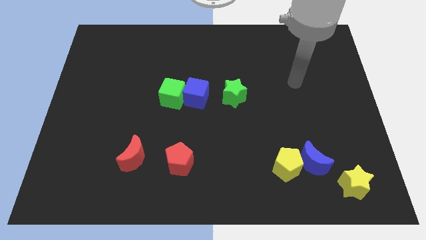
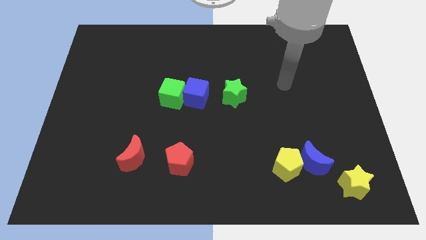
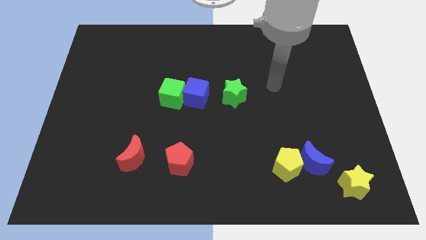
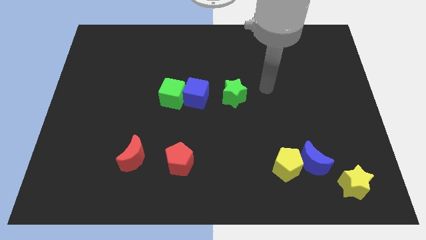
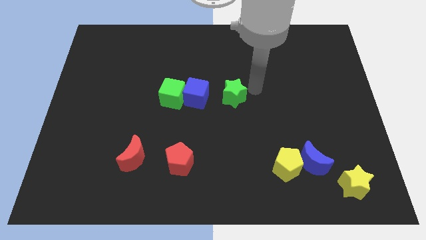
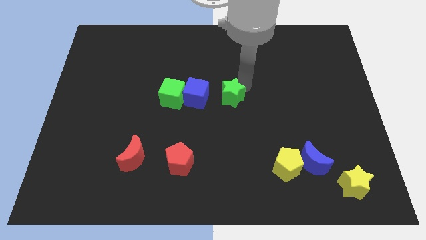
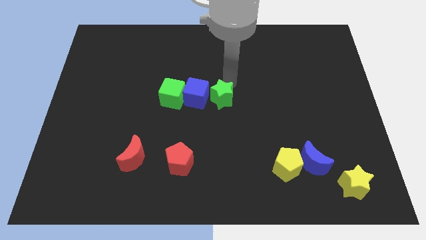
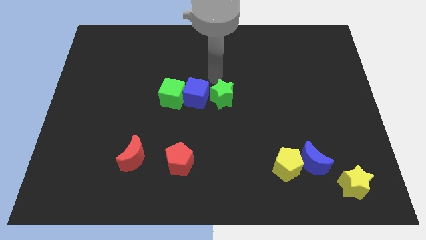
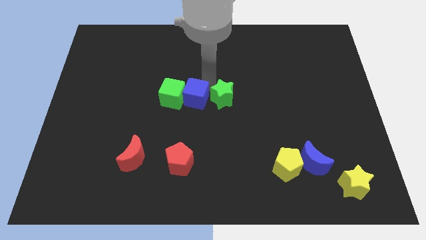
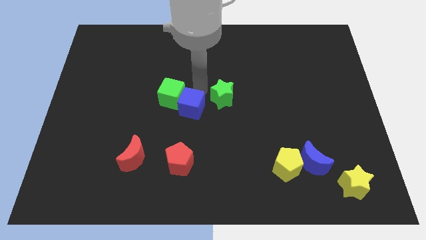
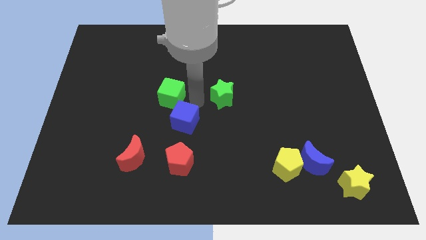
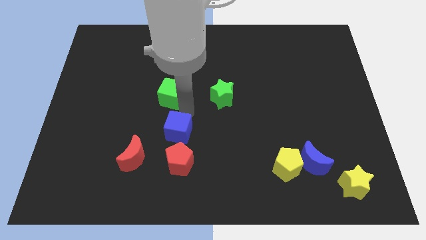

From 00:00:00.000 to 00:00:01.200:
pull the green cube apart from the blue cube

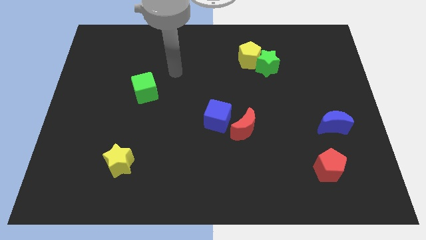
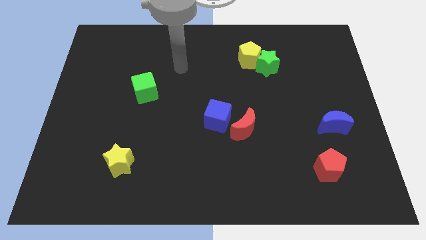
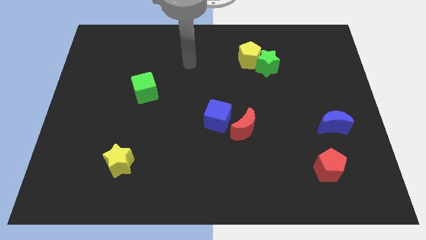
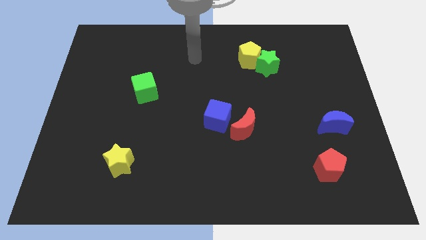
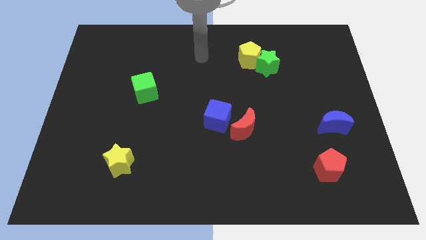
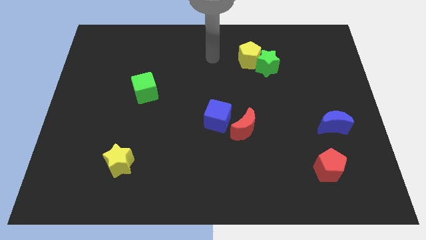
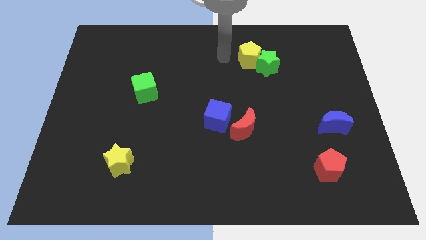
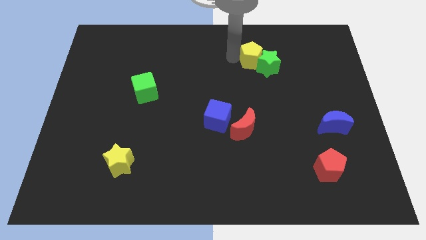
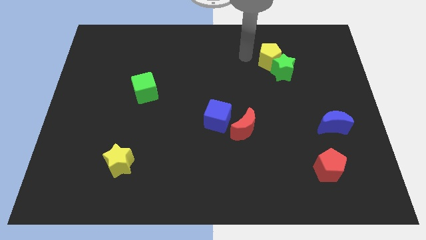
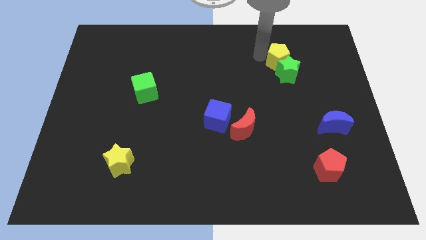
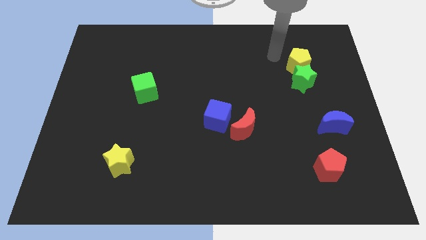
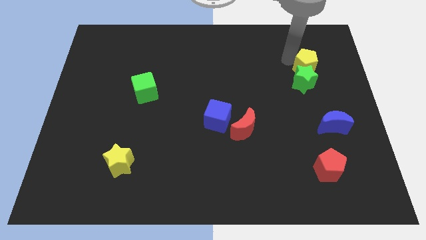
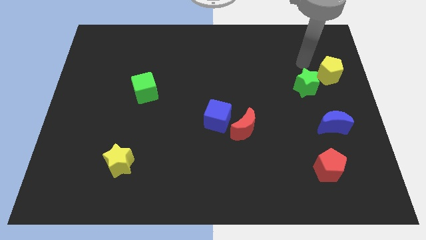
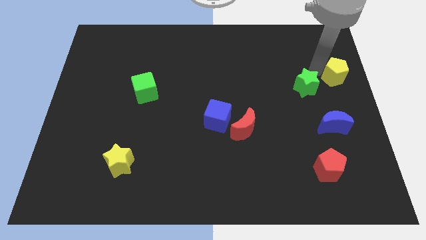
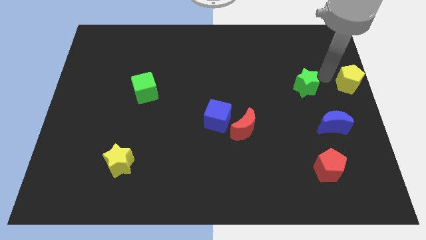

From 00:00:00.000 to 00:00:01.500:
move the green star away from the yellow pentagon

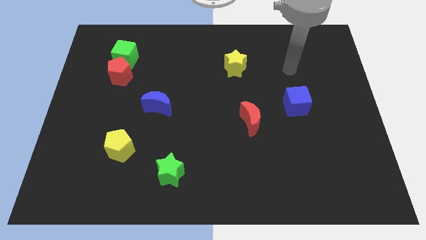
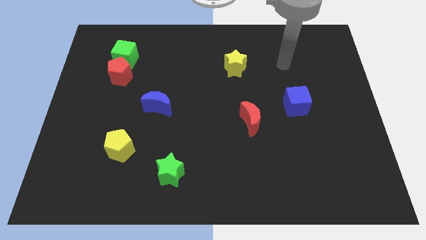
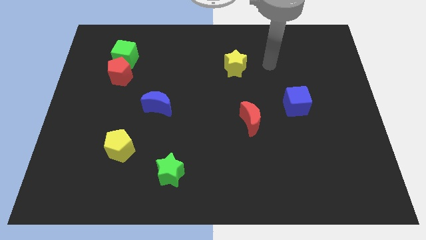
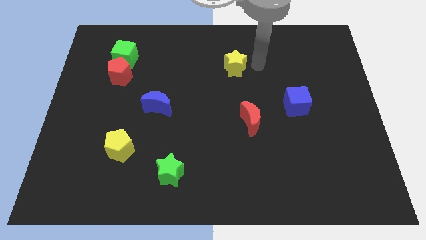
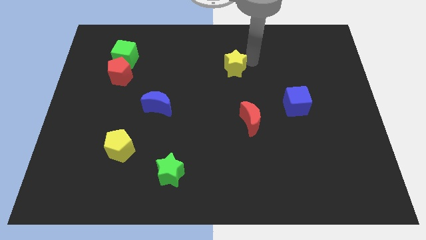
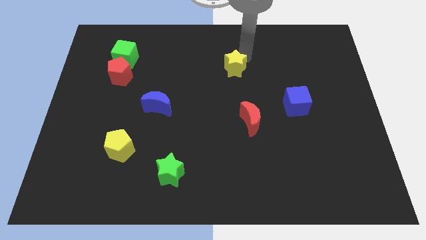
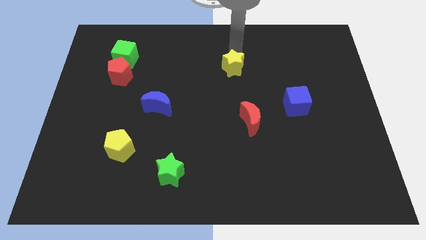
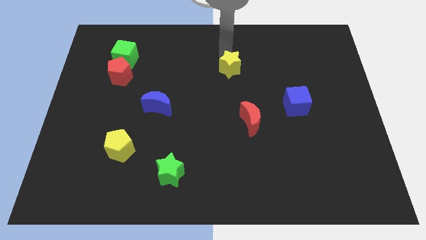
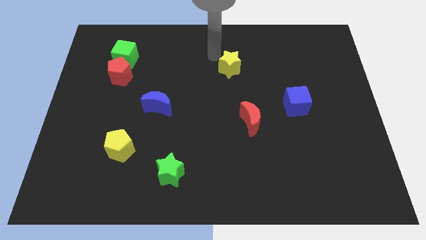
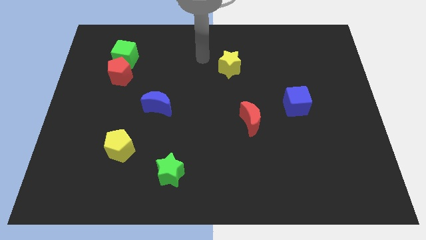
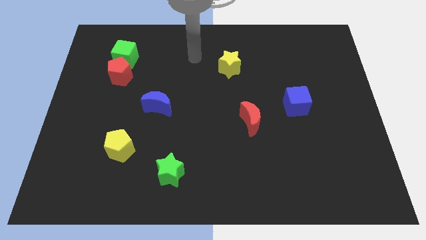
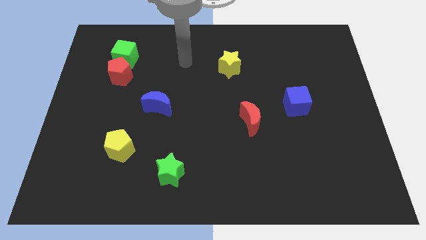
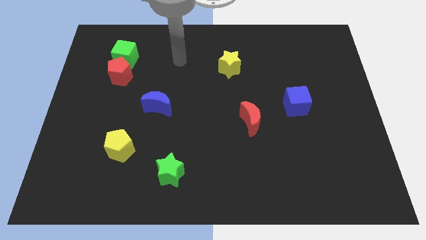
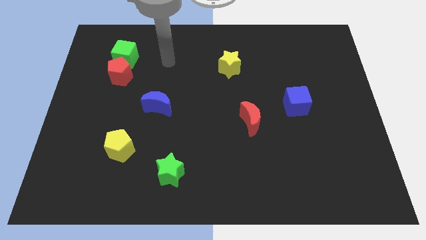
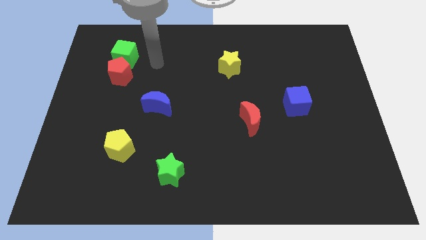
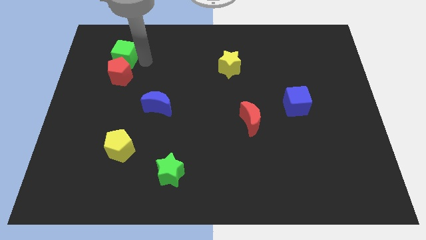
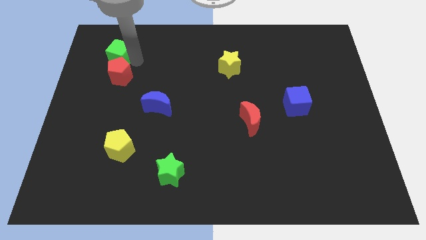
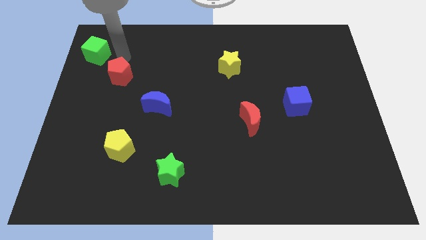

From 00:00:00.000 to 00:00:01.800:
move the red pentagon away from the green cube

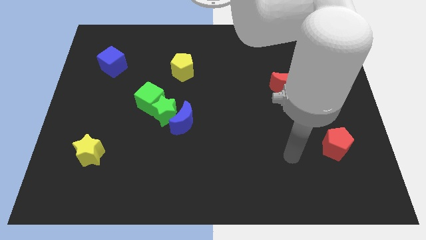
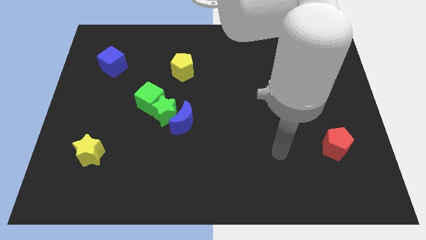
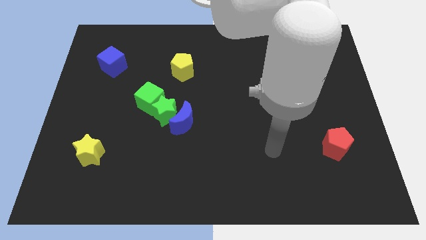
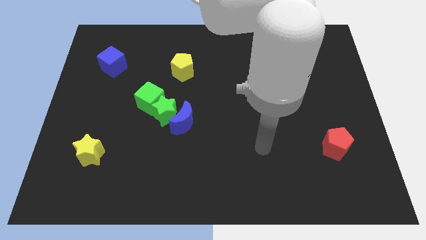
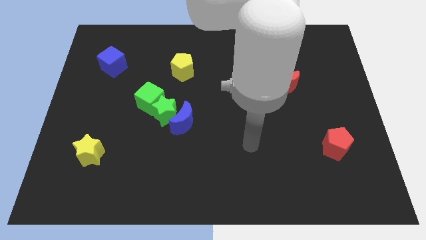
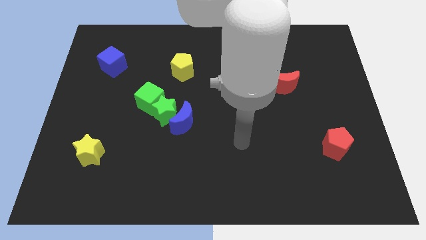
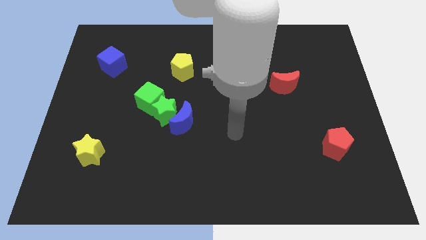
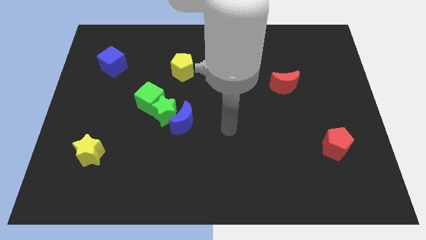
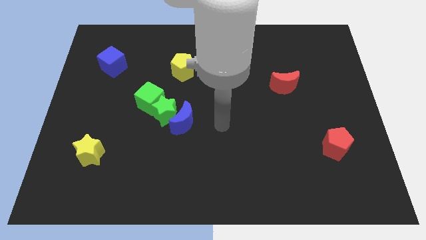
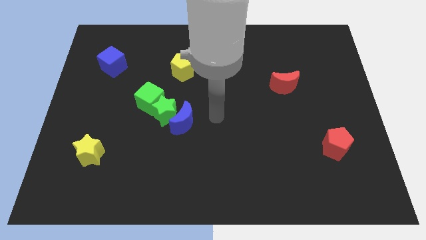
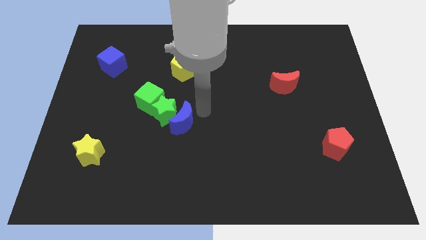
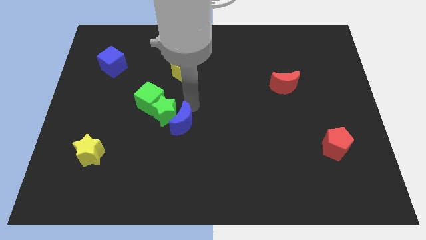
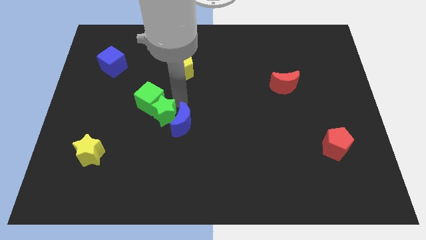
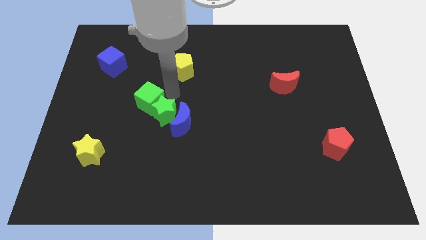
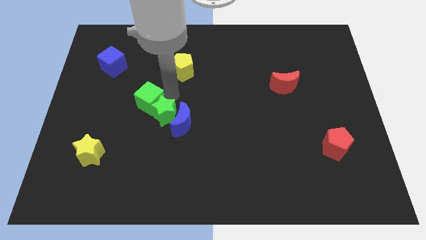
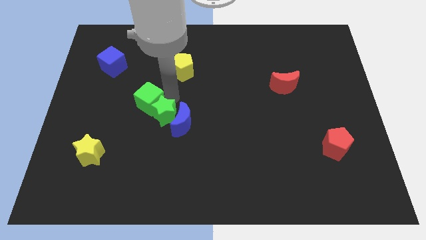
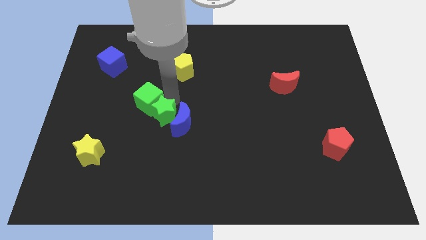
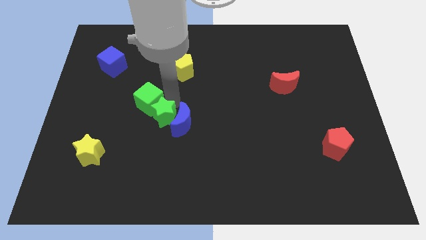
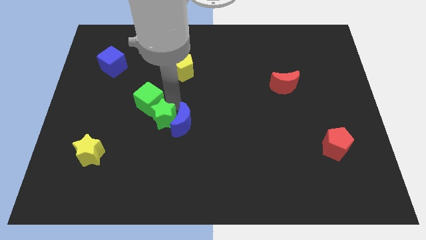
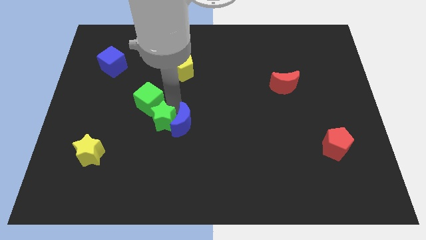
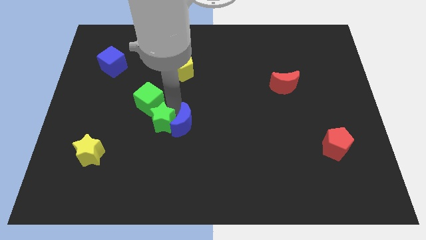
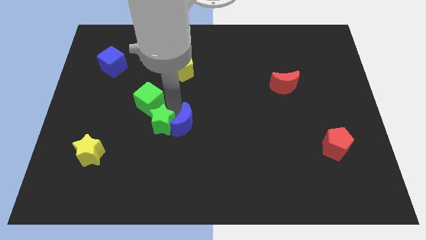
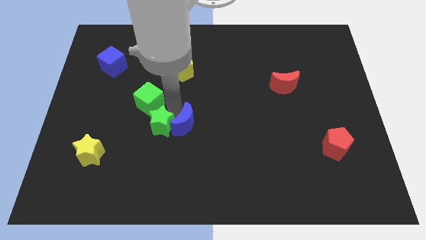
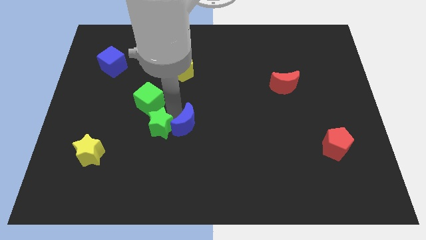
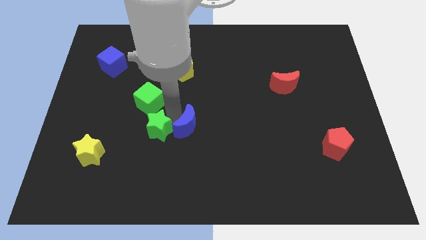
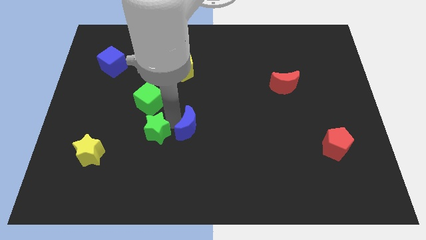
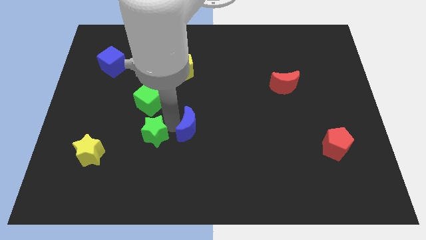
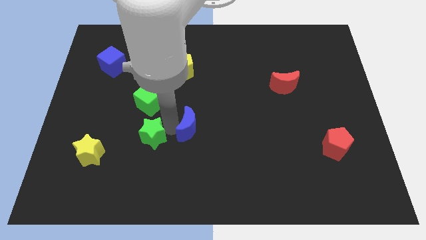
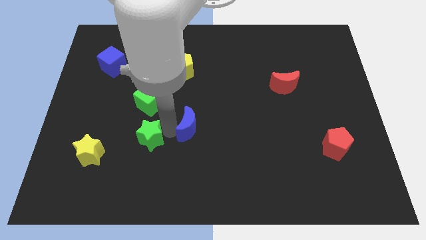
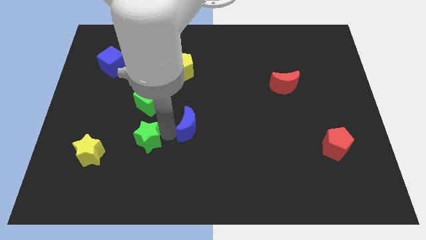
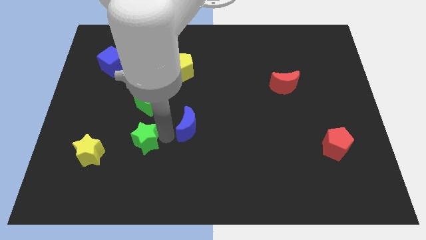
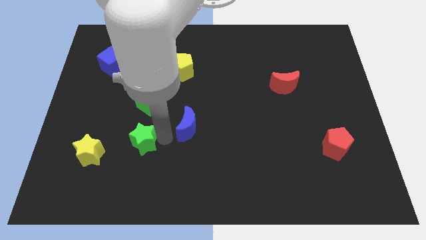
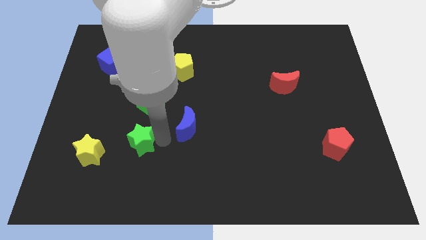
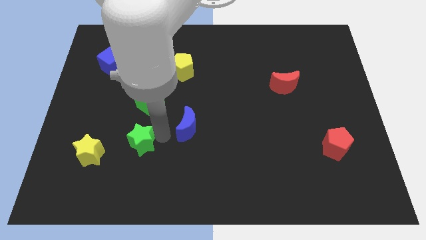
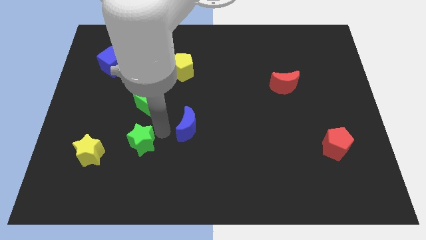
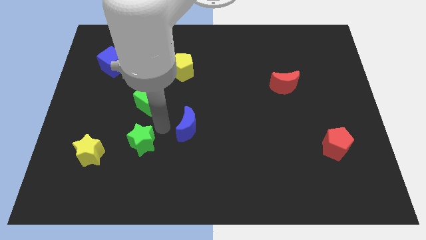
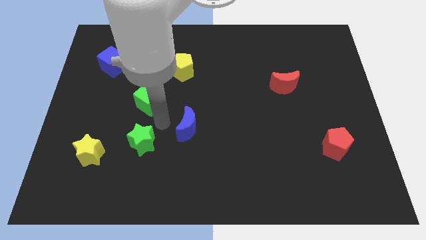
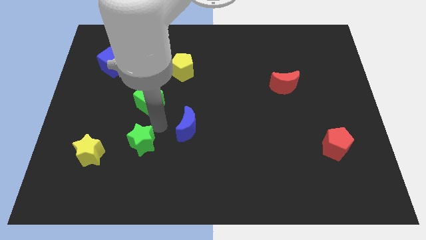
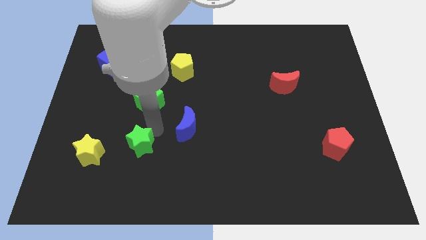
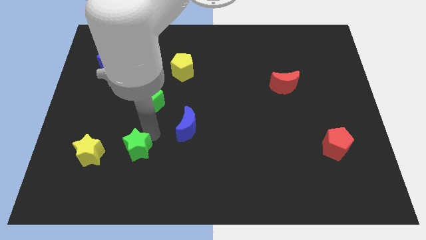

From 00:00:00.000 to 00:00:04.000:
separate the green star from the blue moon and green cube

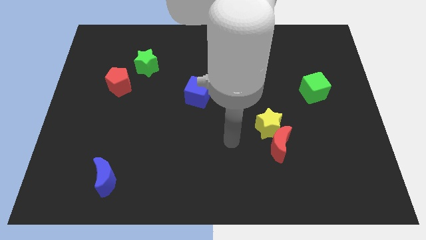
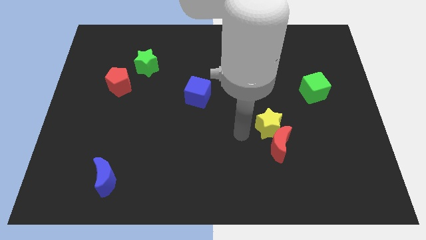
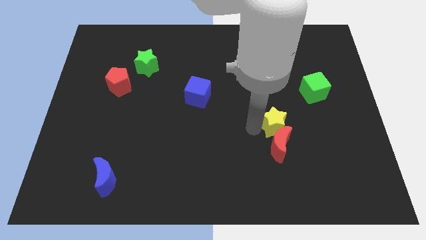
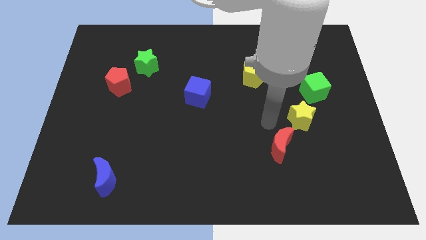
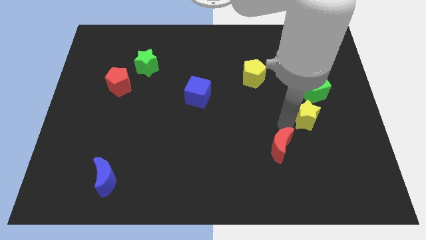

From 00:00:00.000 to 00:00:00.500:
pull the red moon apart from the yellow star

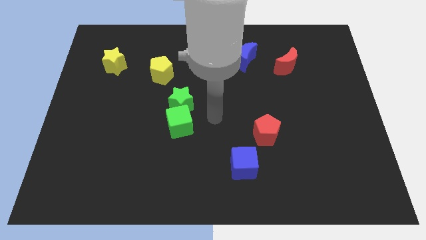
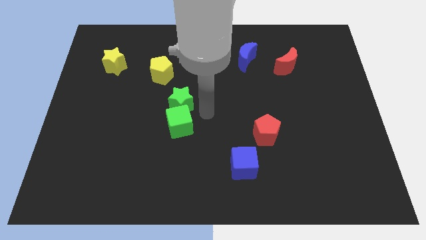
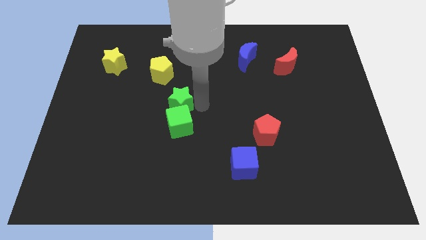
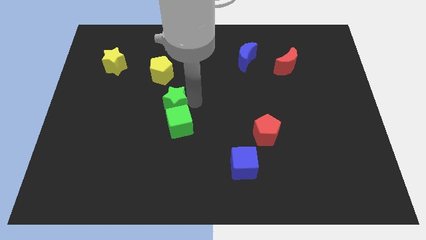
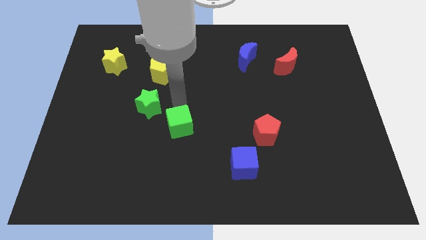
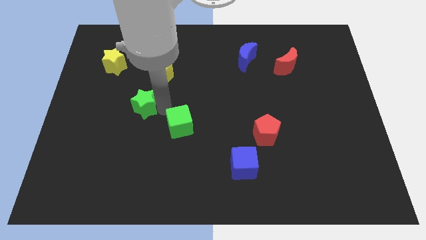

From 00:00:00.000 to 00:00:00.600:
move the green cube away from the green star
